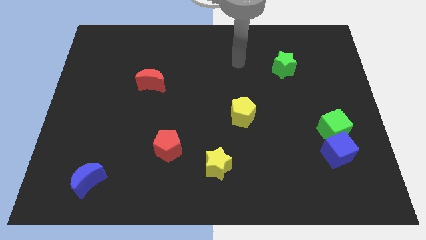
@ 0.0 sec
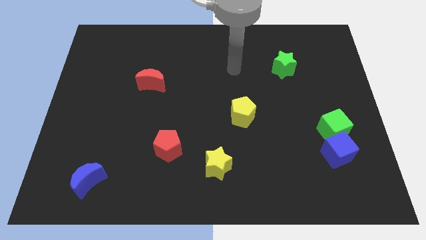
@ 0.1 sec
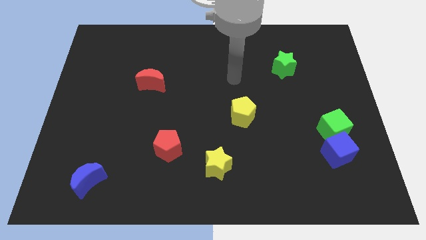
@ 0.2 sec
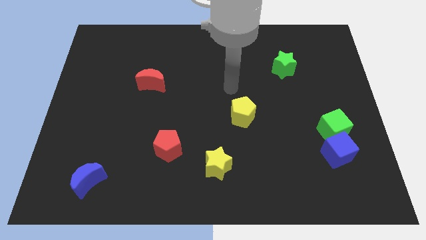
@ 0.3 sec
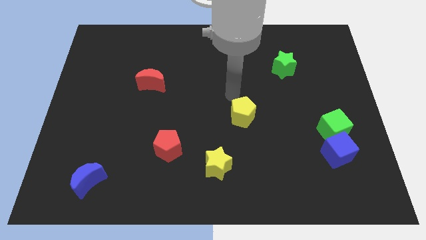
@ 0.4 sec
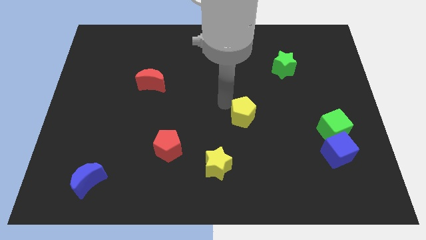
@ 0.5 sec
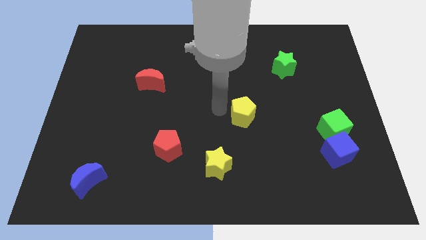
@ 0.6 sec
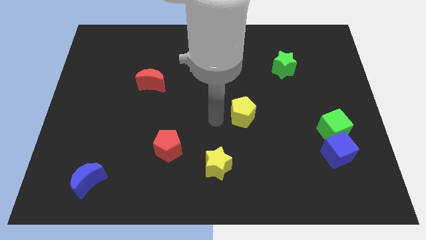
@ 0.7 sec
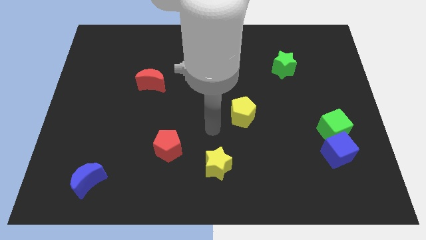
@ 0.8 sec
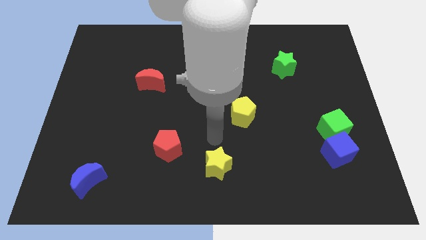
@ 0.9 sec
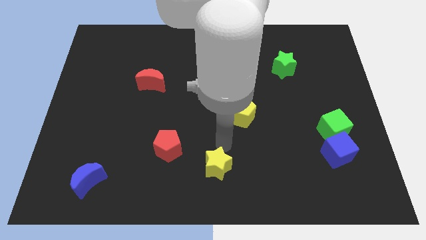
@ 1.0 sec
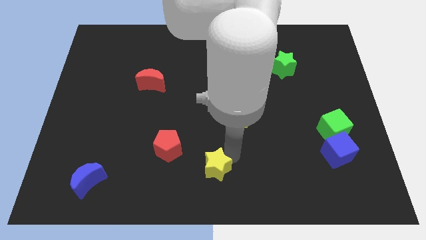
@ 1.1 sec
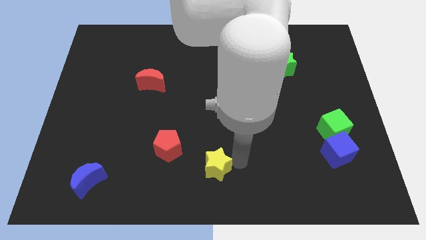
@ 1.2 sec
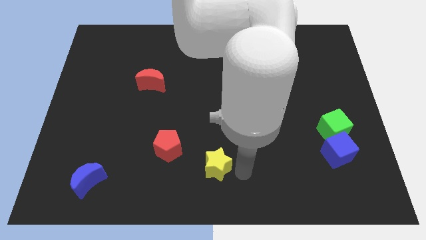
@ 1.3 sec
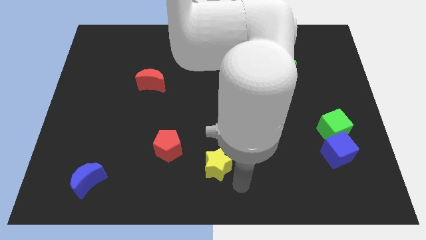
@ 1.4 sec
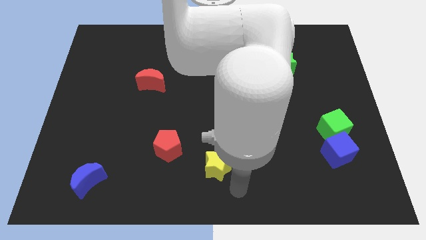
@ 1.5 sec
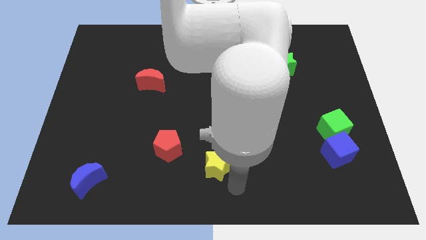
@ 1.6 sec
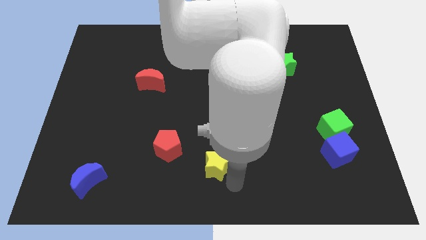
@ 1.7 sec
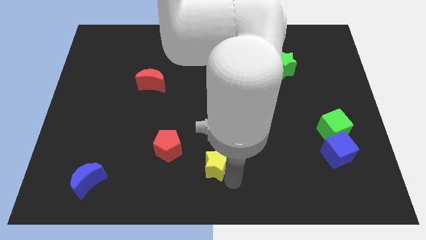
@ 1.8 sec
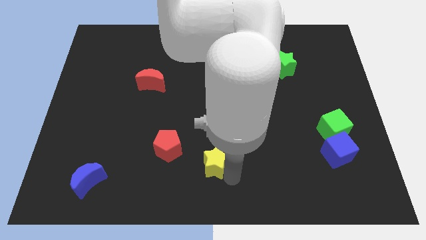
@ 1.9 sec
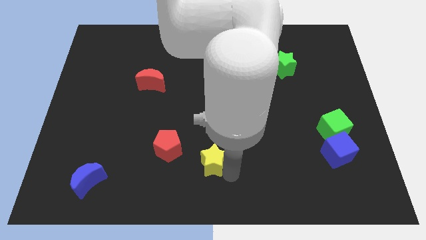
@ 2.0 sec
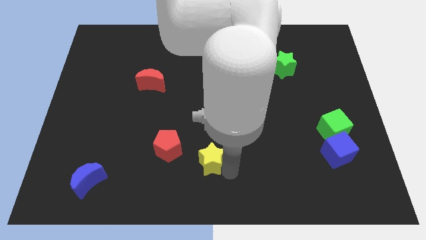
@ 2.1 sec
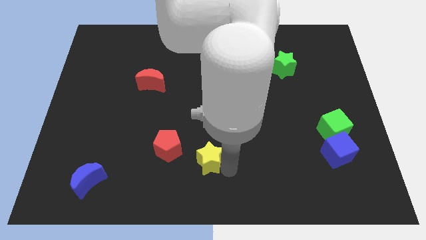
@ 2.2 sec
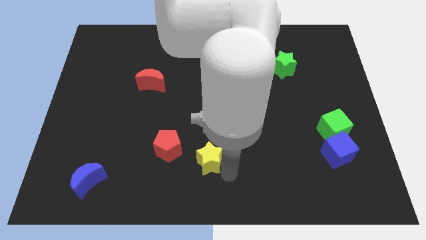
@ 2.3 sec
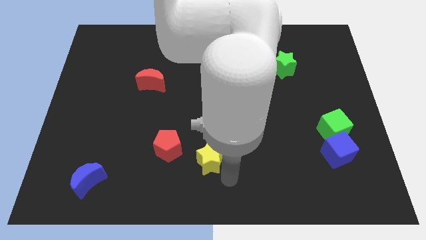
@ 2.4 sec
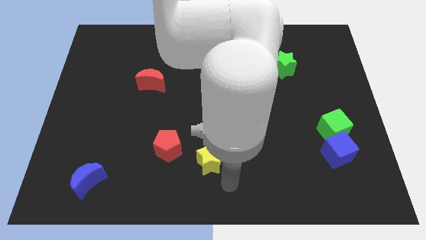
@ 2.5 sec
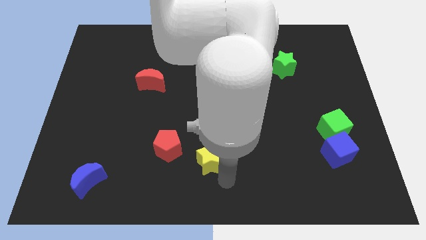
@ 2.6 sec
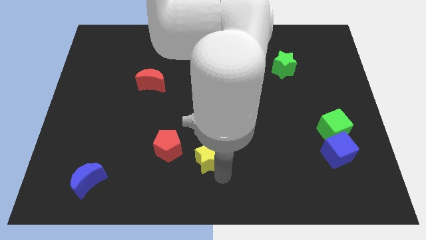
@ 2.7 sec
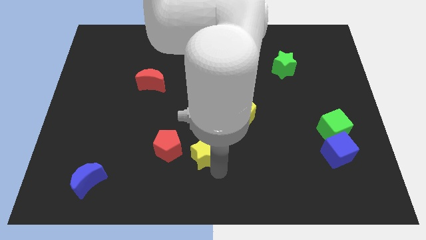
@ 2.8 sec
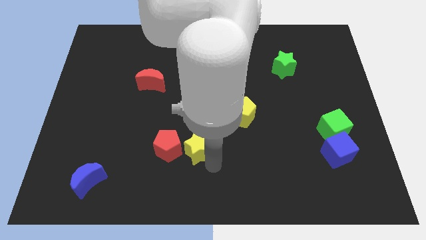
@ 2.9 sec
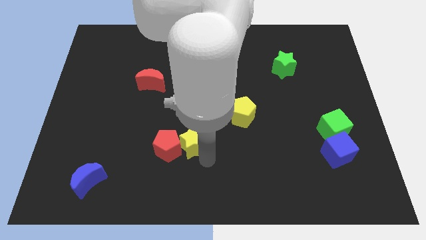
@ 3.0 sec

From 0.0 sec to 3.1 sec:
push the yellow star a bit up and then left

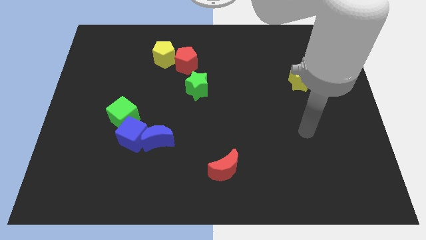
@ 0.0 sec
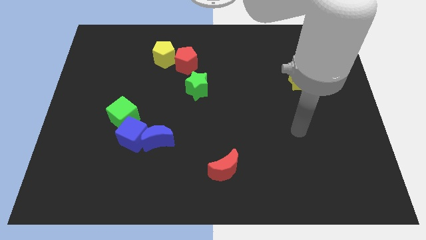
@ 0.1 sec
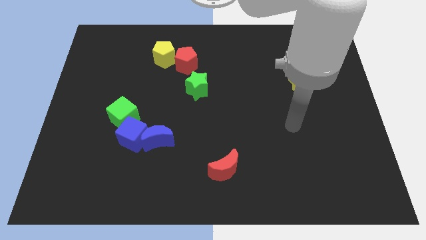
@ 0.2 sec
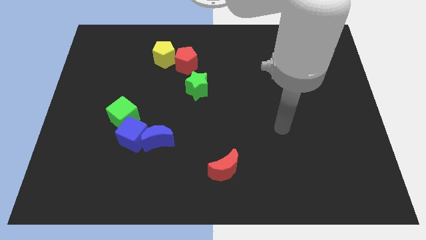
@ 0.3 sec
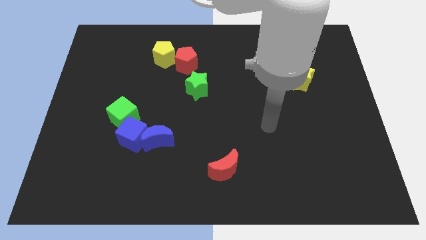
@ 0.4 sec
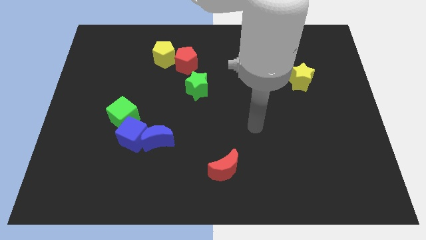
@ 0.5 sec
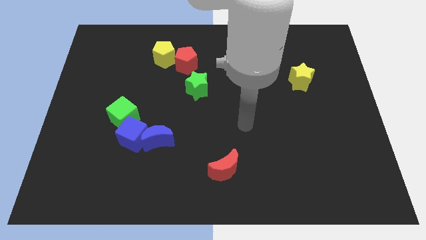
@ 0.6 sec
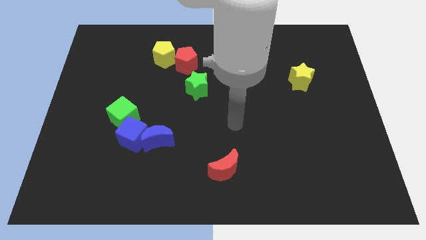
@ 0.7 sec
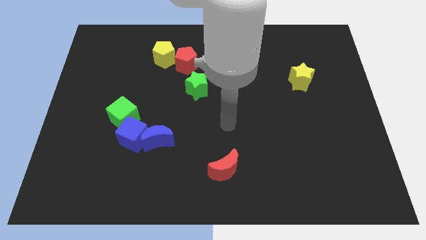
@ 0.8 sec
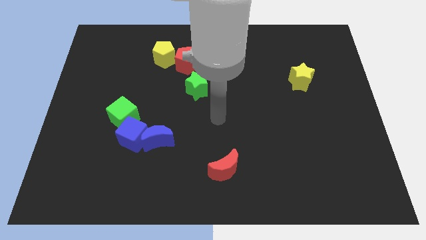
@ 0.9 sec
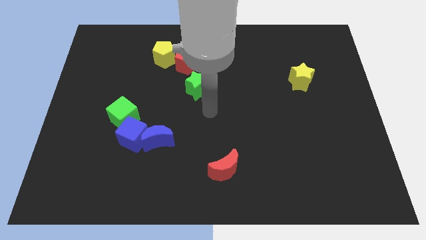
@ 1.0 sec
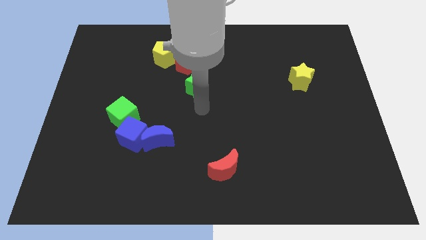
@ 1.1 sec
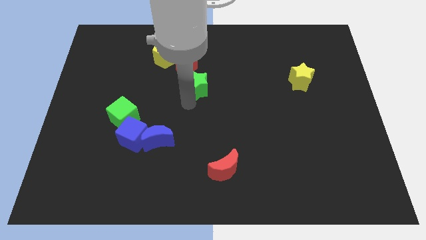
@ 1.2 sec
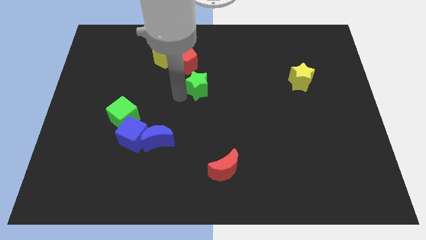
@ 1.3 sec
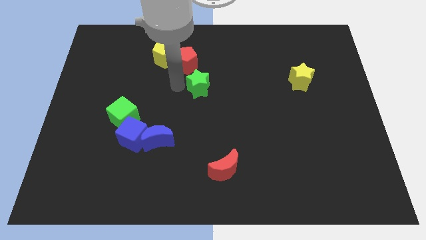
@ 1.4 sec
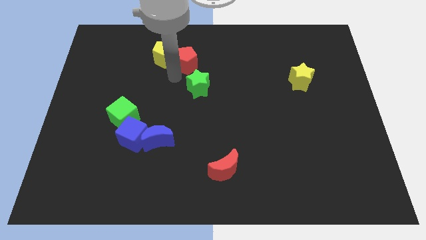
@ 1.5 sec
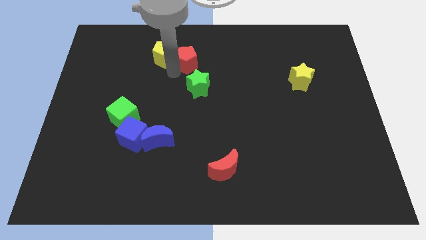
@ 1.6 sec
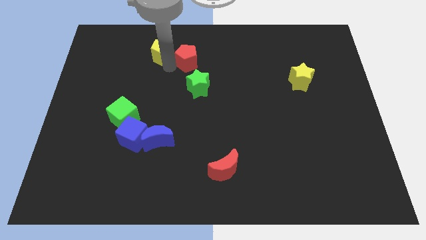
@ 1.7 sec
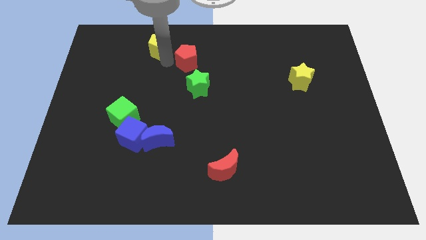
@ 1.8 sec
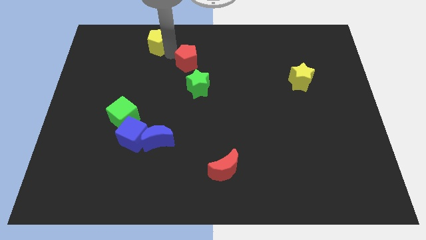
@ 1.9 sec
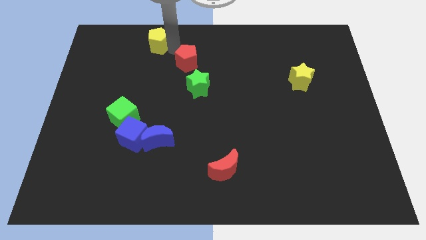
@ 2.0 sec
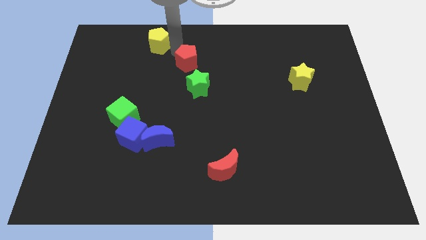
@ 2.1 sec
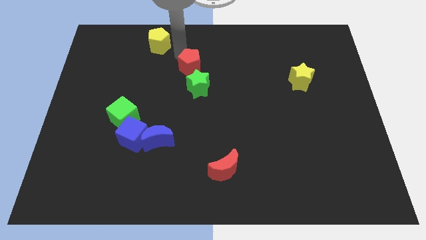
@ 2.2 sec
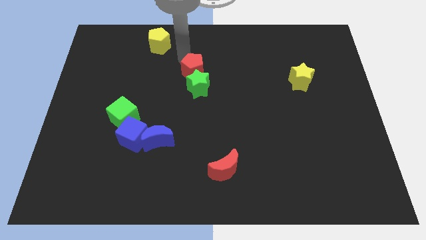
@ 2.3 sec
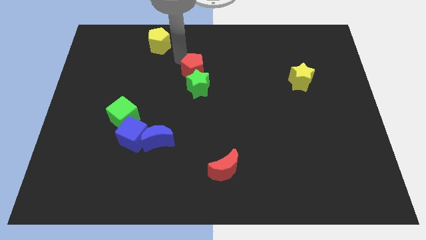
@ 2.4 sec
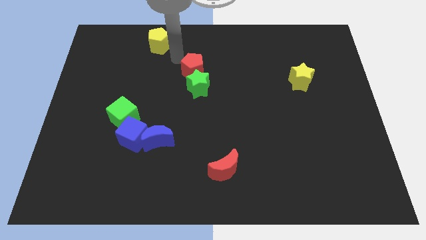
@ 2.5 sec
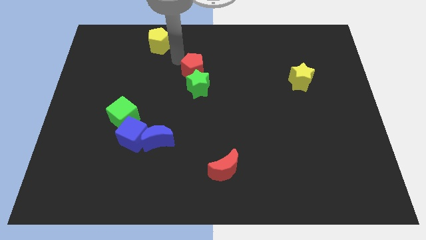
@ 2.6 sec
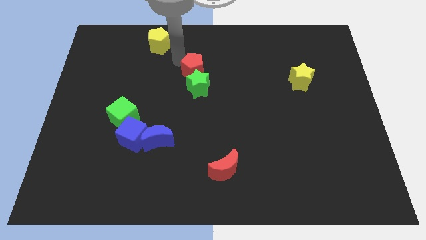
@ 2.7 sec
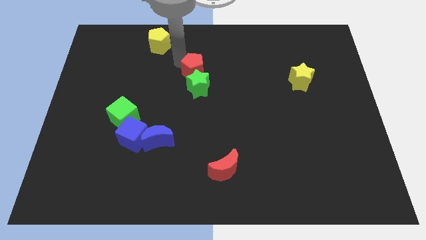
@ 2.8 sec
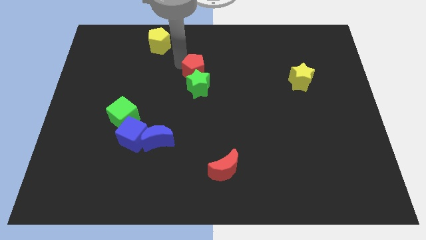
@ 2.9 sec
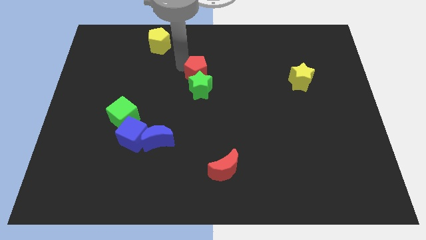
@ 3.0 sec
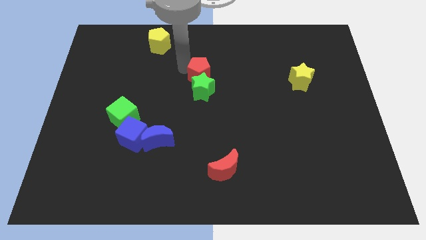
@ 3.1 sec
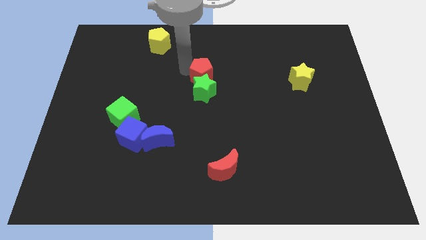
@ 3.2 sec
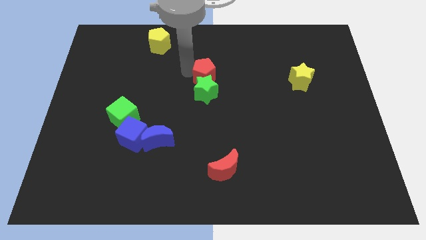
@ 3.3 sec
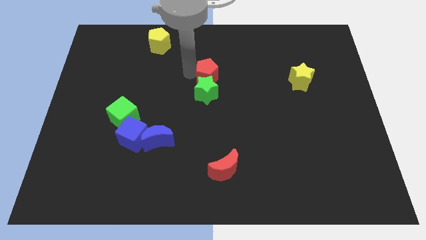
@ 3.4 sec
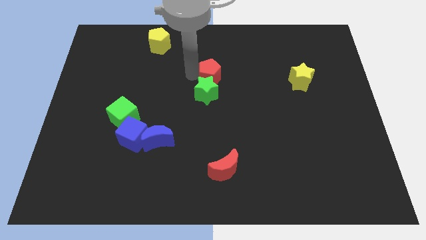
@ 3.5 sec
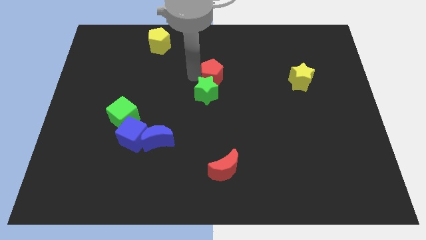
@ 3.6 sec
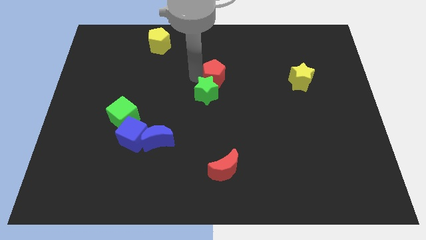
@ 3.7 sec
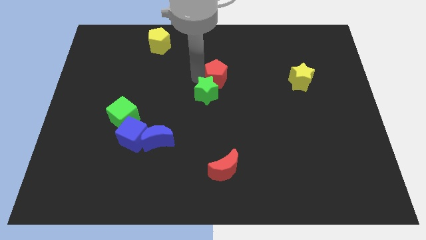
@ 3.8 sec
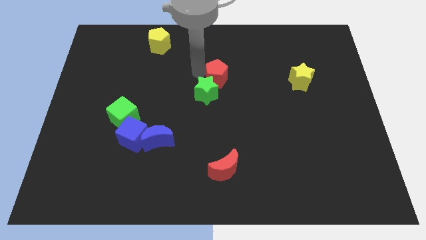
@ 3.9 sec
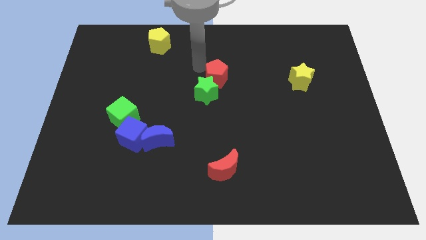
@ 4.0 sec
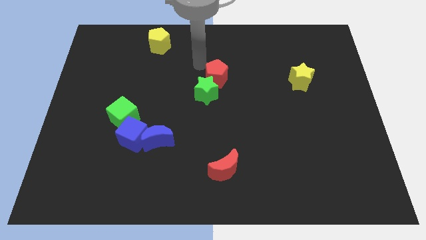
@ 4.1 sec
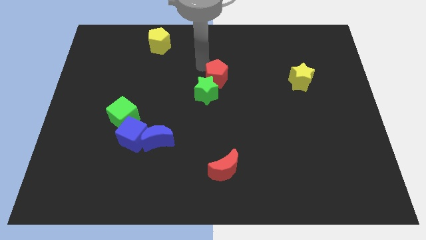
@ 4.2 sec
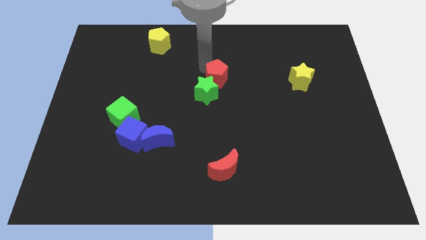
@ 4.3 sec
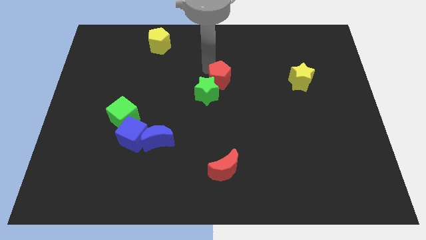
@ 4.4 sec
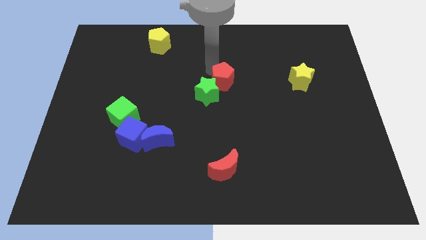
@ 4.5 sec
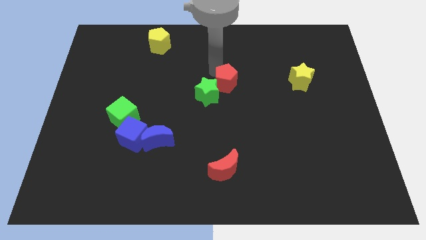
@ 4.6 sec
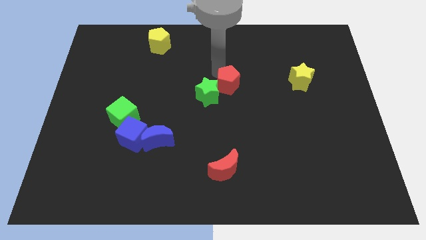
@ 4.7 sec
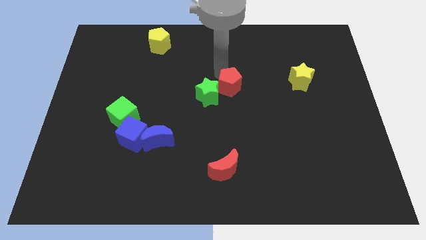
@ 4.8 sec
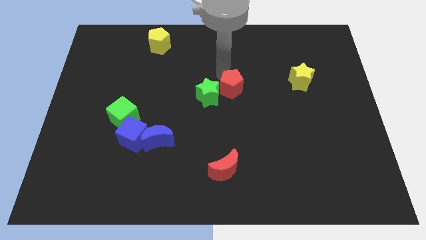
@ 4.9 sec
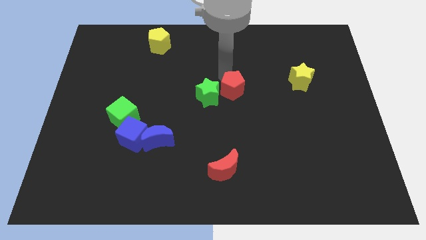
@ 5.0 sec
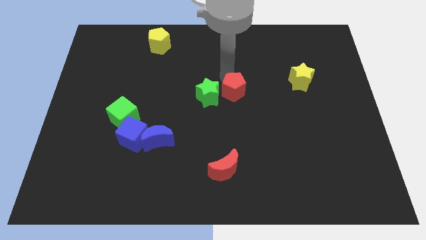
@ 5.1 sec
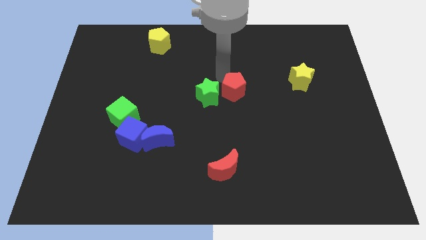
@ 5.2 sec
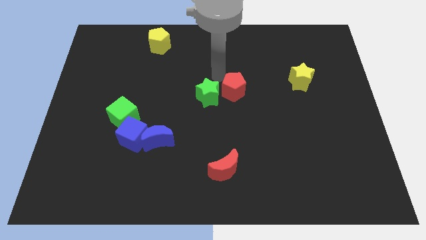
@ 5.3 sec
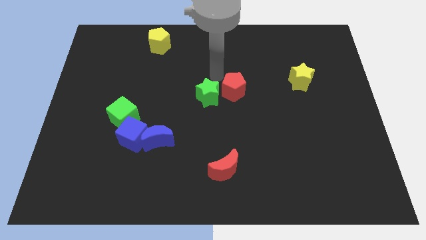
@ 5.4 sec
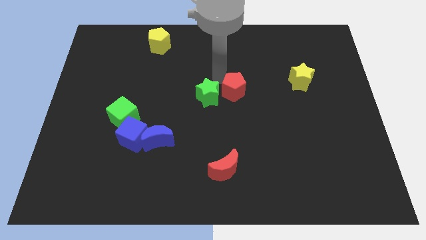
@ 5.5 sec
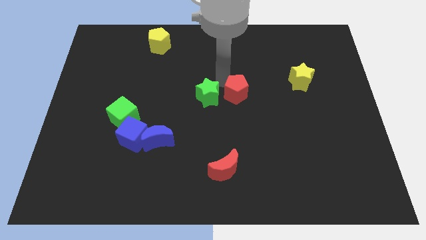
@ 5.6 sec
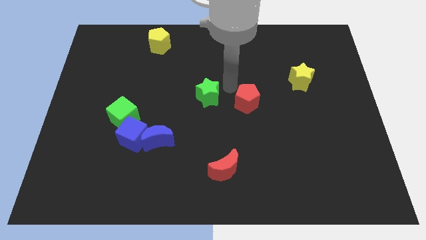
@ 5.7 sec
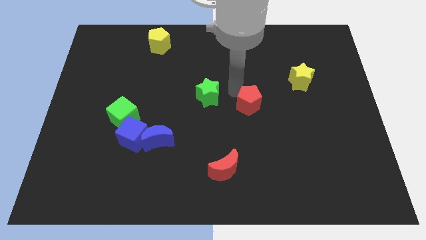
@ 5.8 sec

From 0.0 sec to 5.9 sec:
move the red pentagon down and then to the right
